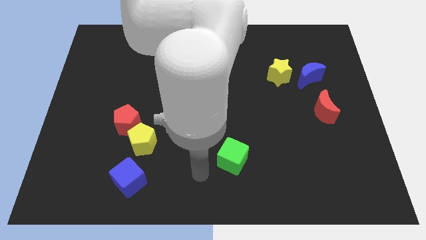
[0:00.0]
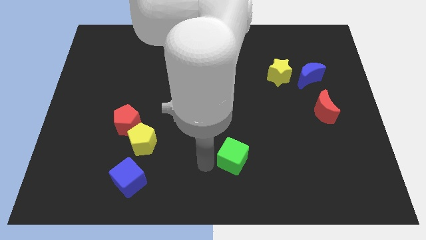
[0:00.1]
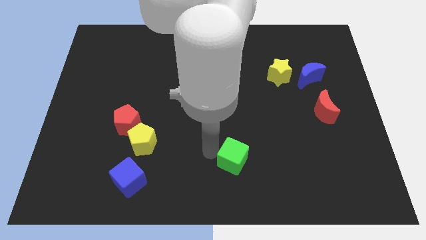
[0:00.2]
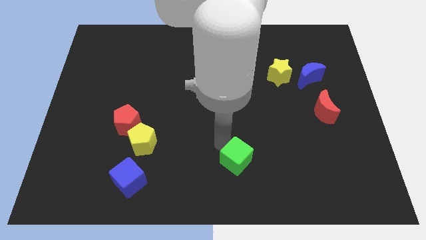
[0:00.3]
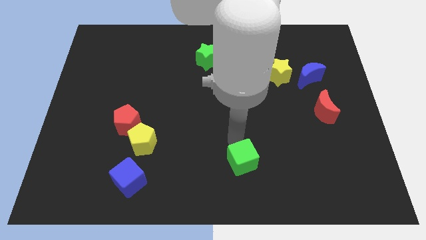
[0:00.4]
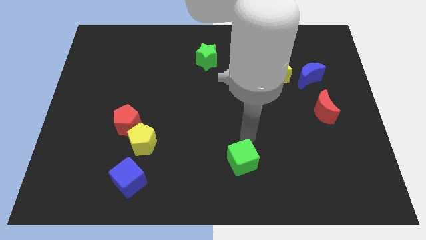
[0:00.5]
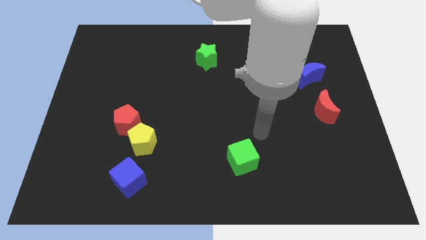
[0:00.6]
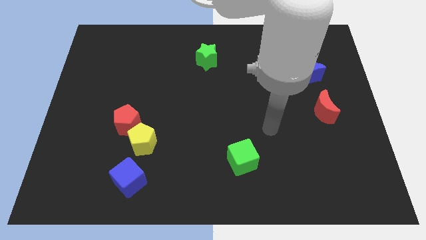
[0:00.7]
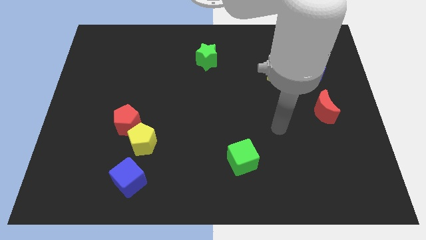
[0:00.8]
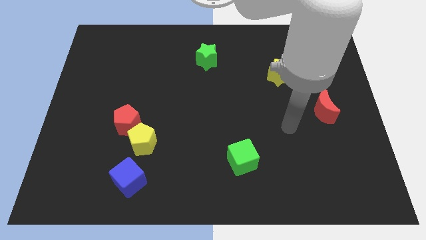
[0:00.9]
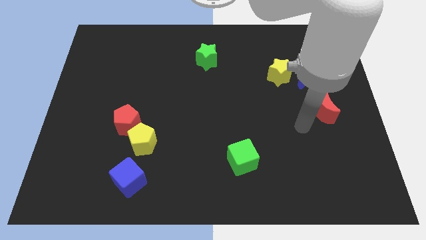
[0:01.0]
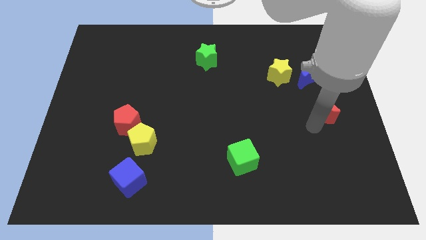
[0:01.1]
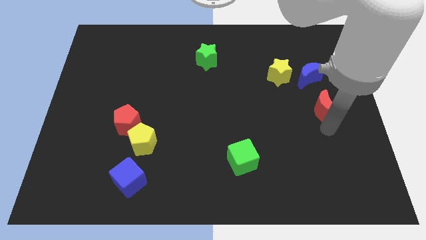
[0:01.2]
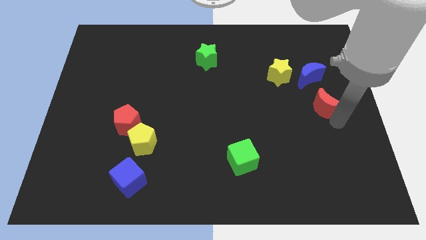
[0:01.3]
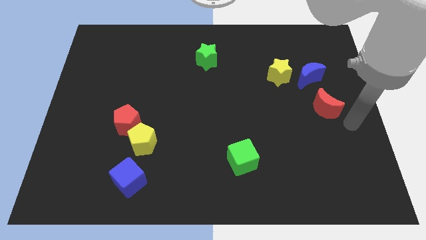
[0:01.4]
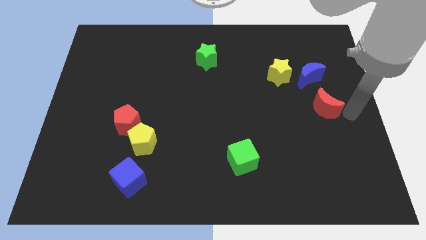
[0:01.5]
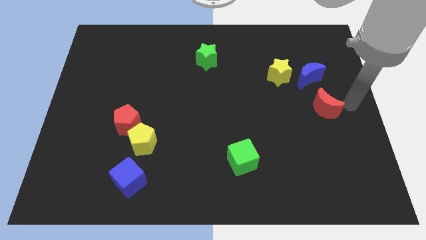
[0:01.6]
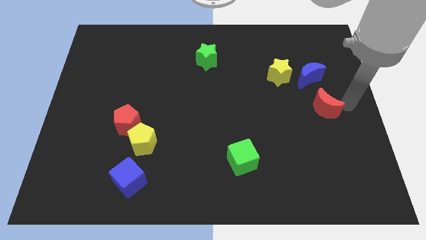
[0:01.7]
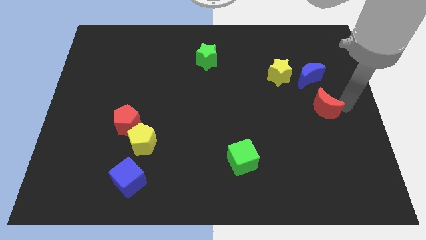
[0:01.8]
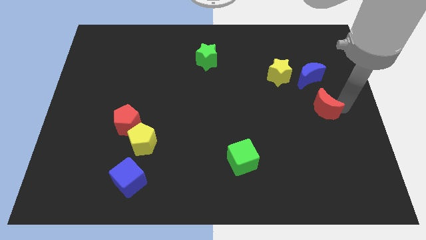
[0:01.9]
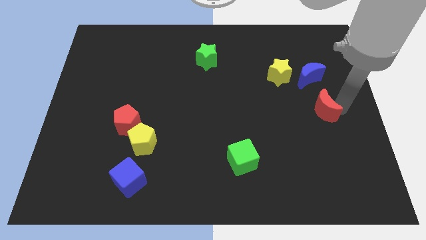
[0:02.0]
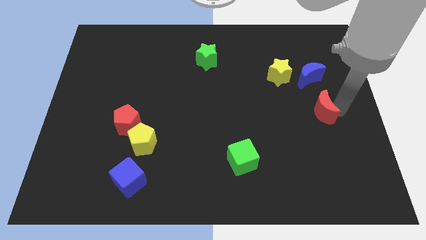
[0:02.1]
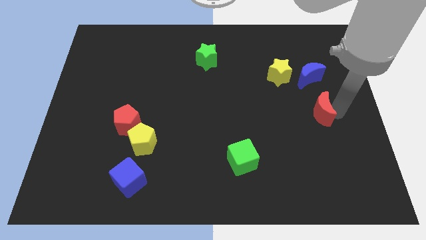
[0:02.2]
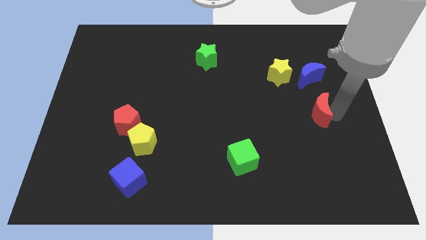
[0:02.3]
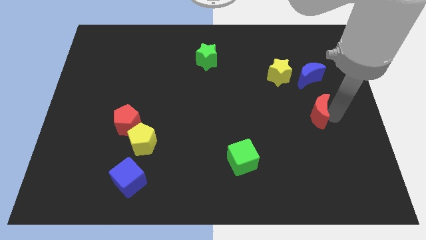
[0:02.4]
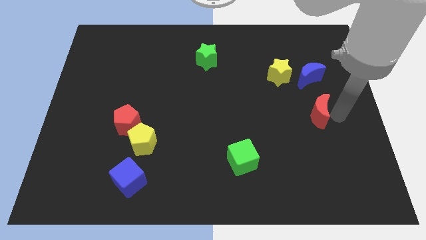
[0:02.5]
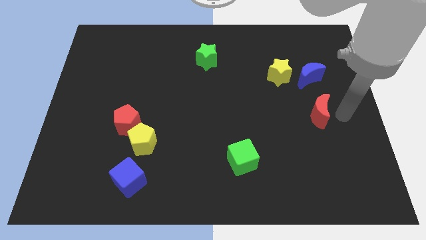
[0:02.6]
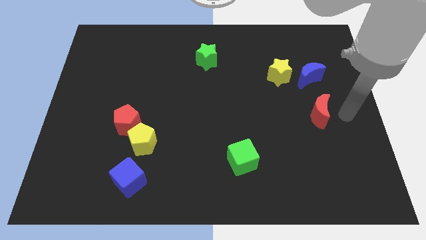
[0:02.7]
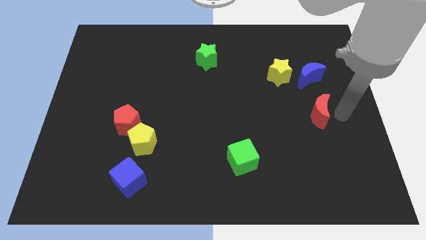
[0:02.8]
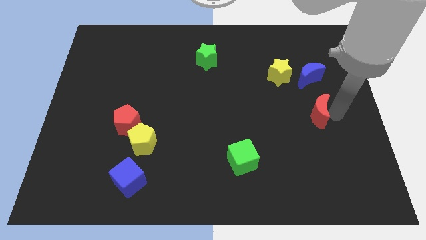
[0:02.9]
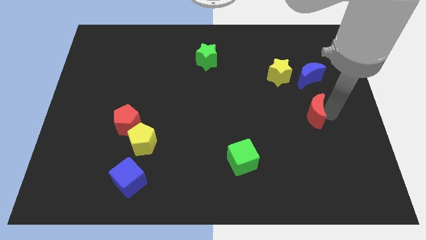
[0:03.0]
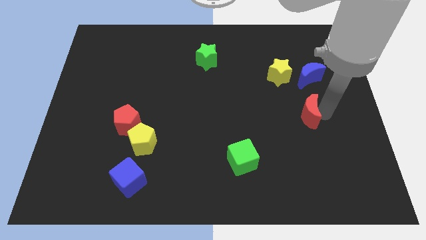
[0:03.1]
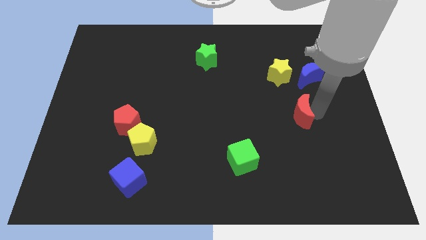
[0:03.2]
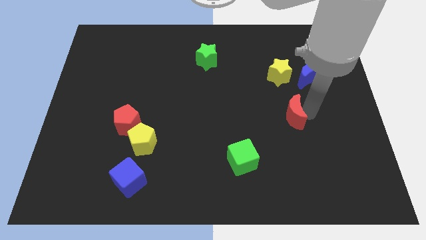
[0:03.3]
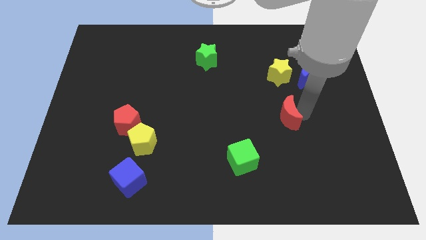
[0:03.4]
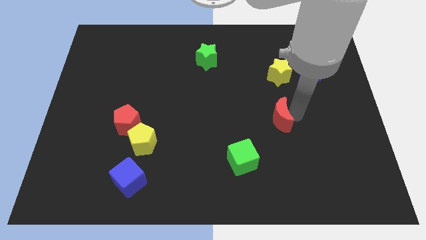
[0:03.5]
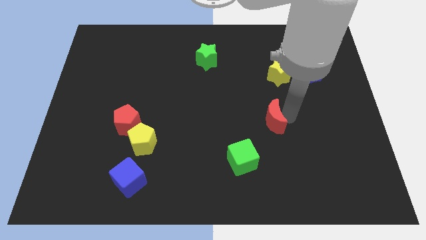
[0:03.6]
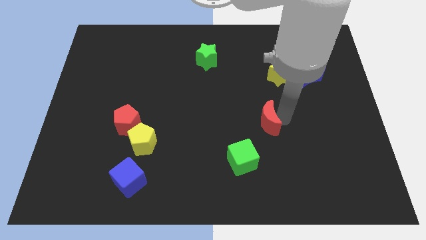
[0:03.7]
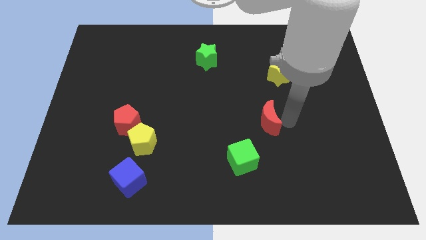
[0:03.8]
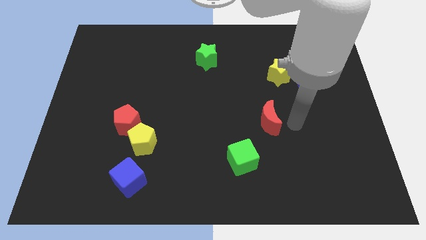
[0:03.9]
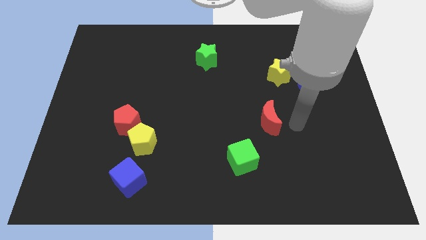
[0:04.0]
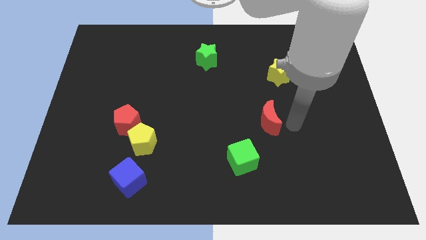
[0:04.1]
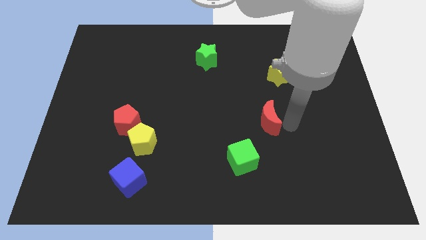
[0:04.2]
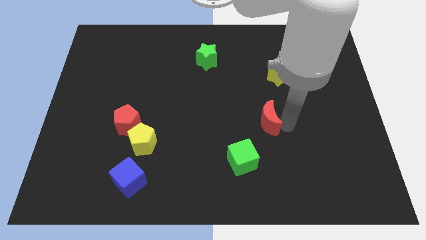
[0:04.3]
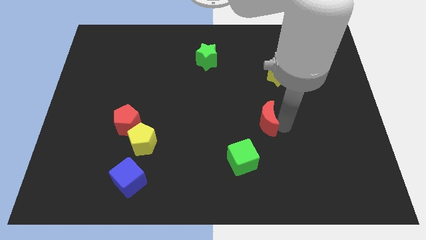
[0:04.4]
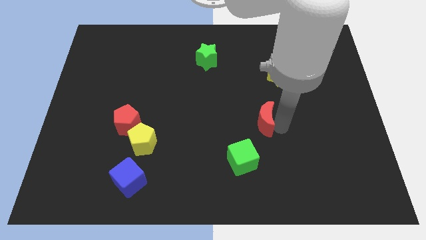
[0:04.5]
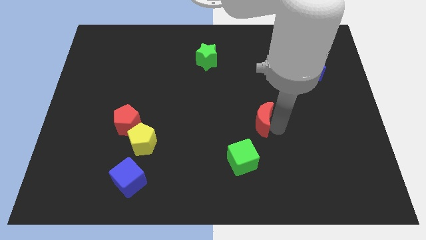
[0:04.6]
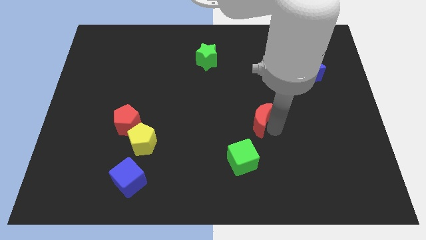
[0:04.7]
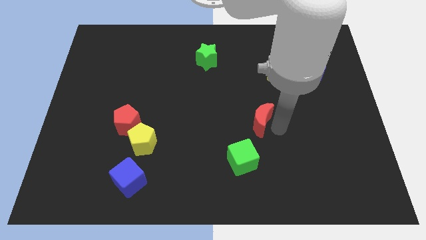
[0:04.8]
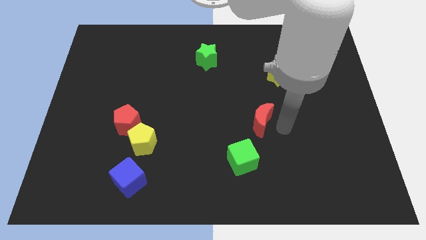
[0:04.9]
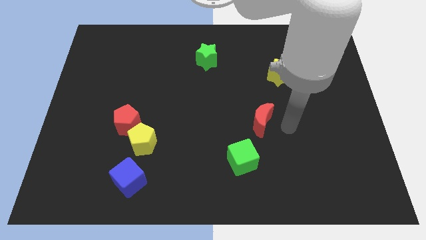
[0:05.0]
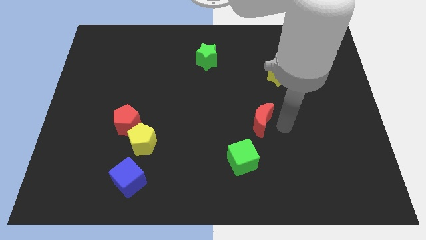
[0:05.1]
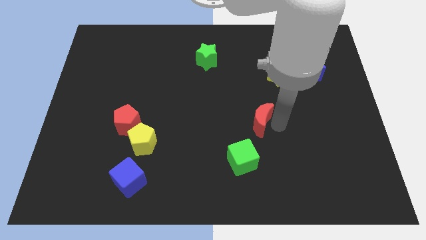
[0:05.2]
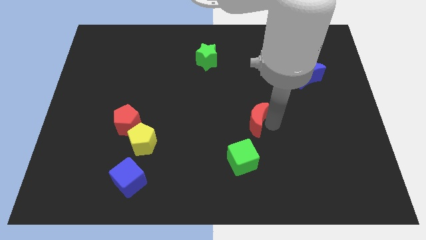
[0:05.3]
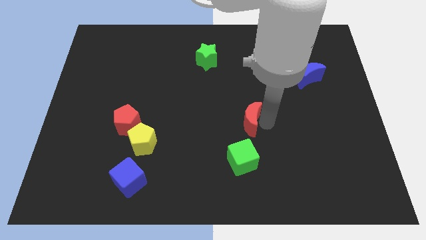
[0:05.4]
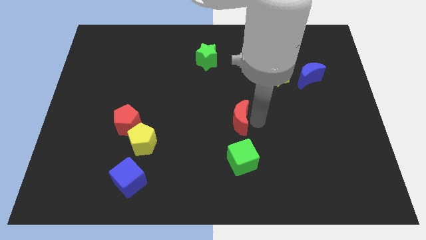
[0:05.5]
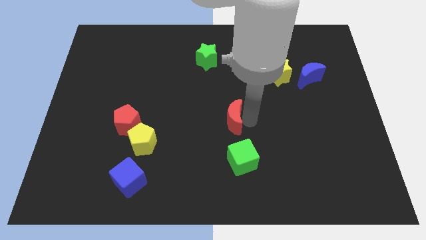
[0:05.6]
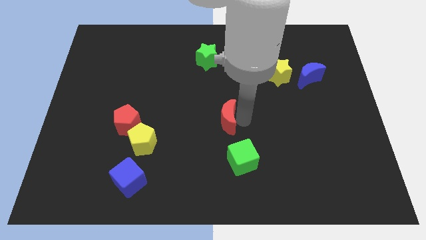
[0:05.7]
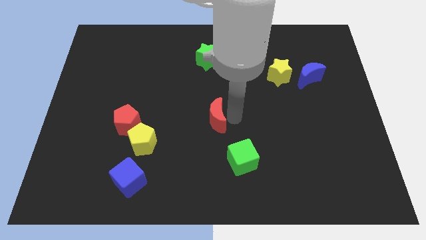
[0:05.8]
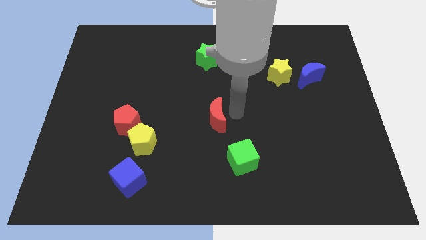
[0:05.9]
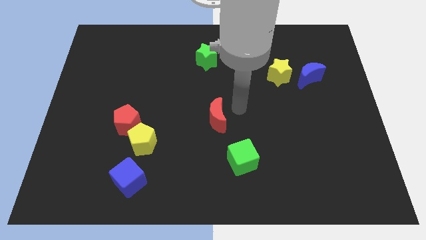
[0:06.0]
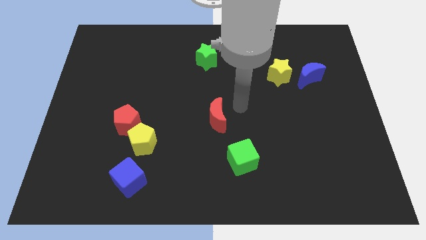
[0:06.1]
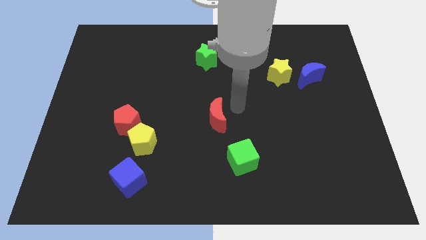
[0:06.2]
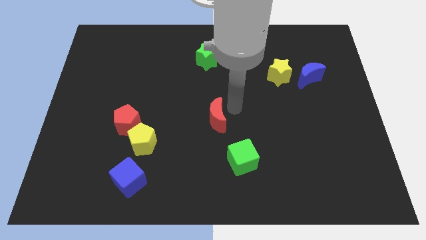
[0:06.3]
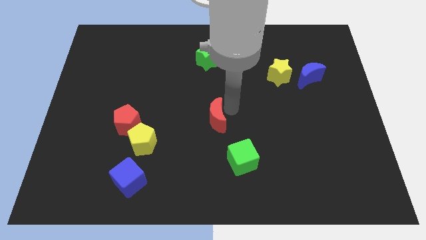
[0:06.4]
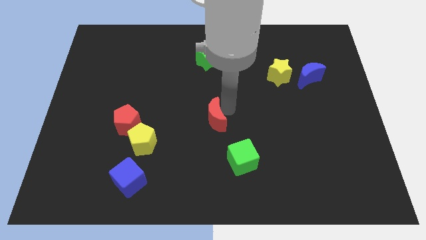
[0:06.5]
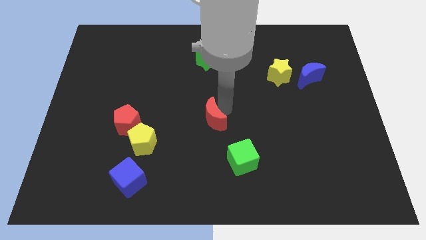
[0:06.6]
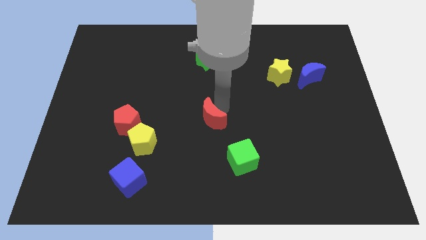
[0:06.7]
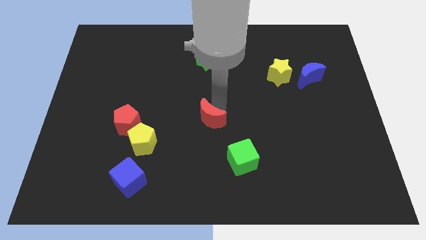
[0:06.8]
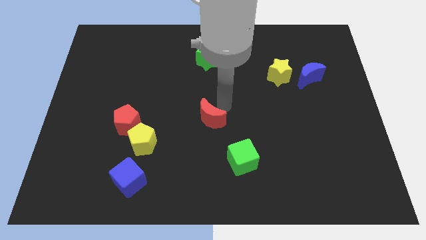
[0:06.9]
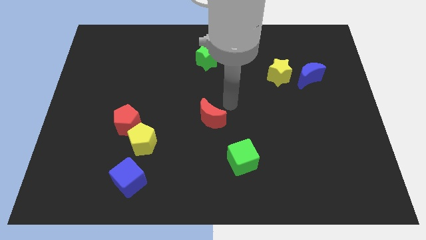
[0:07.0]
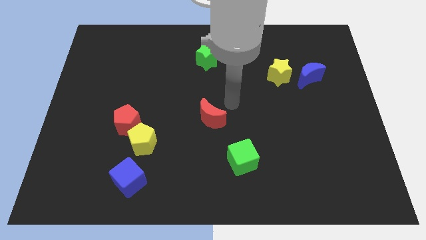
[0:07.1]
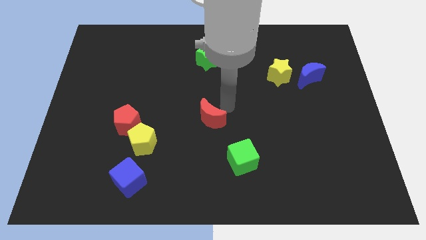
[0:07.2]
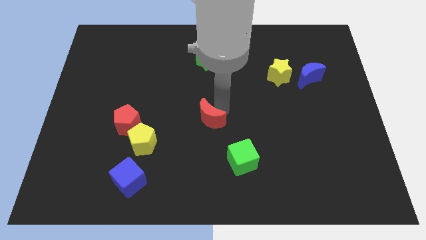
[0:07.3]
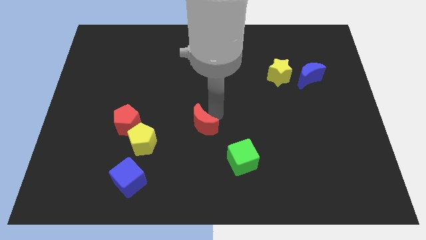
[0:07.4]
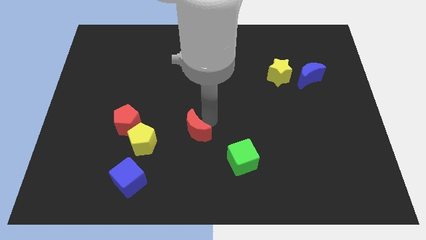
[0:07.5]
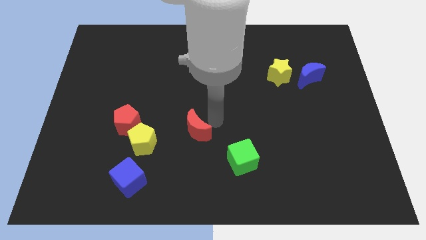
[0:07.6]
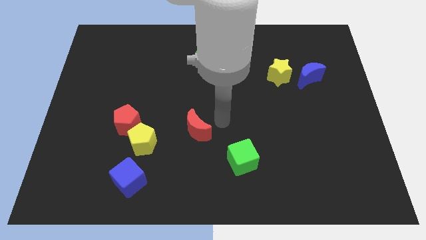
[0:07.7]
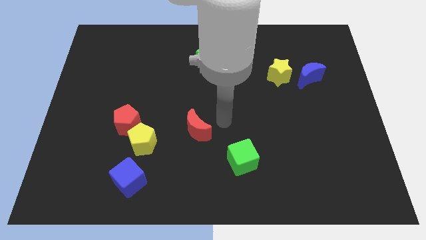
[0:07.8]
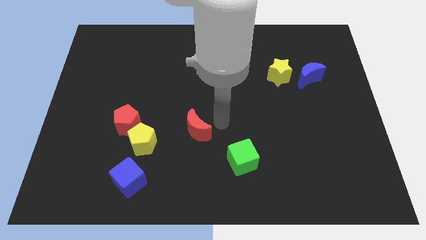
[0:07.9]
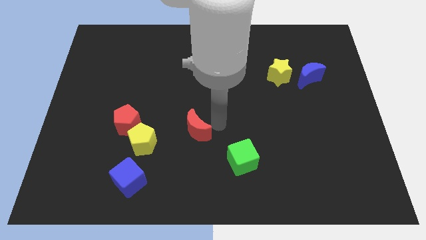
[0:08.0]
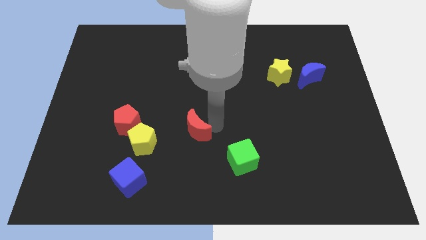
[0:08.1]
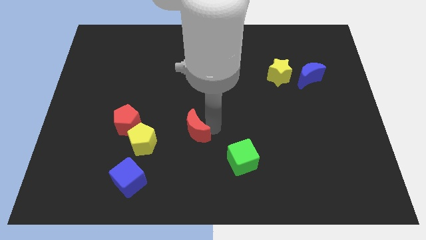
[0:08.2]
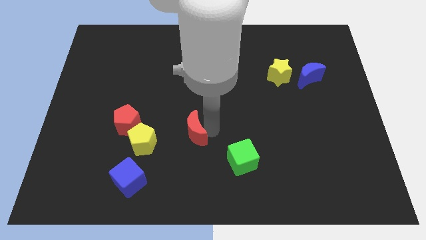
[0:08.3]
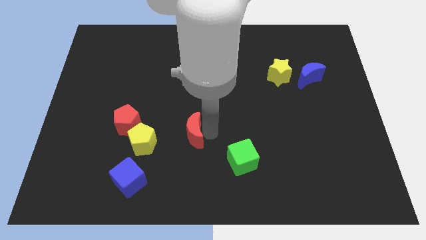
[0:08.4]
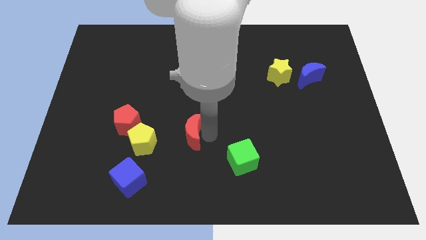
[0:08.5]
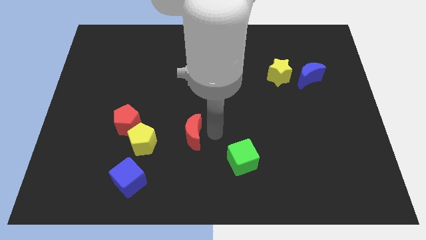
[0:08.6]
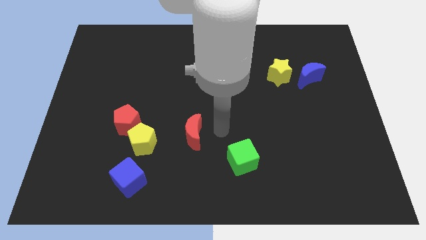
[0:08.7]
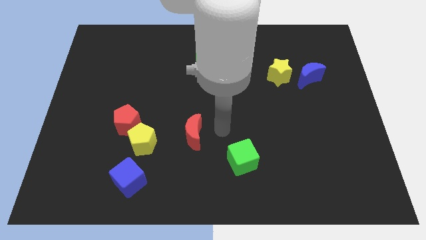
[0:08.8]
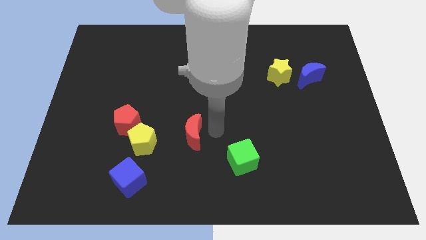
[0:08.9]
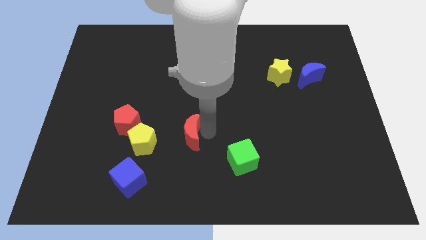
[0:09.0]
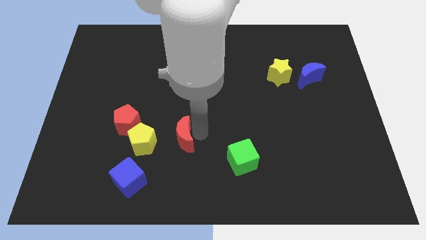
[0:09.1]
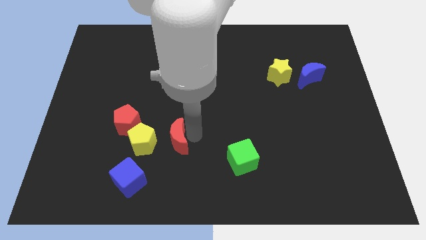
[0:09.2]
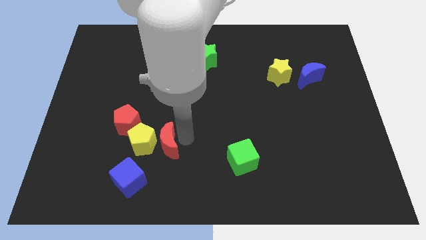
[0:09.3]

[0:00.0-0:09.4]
slide the red moon towards the yellow pentagon
